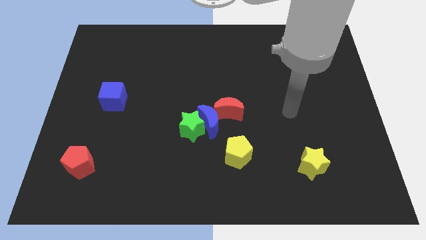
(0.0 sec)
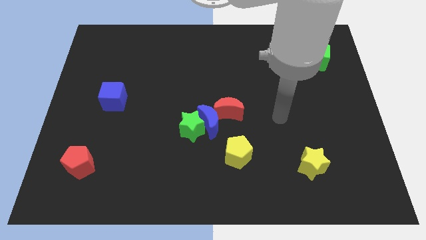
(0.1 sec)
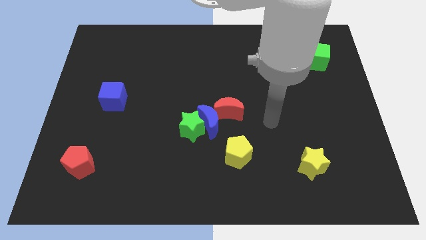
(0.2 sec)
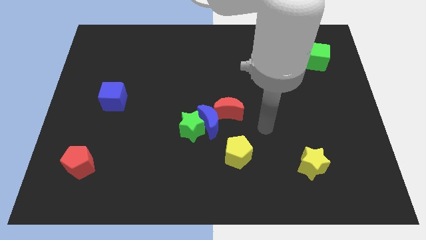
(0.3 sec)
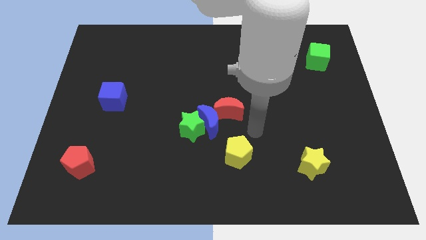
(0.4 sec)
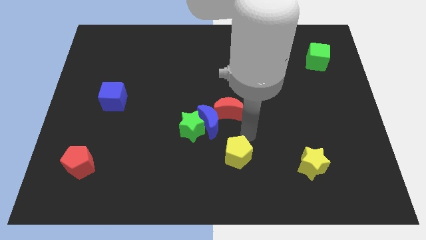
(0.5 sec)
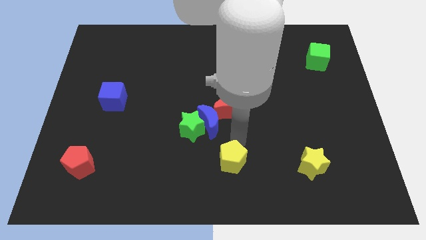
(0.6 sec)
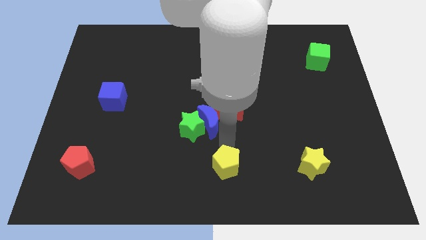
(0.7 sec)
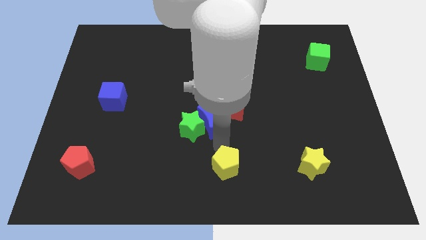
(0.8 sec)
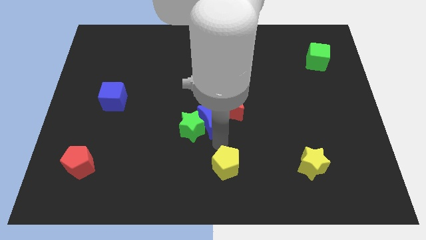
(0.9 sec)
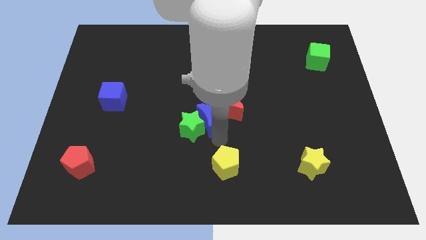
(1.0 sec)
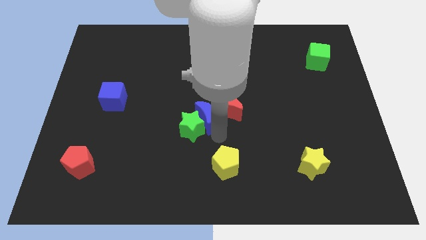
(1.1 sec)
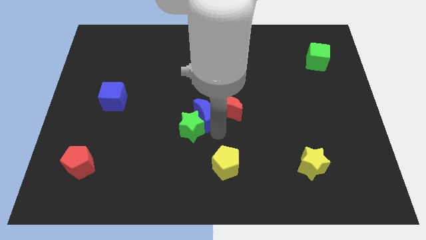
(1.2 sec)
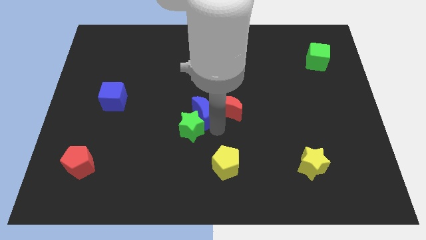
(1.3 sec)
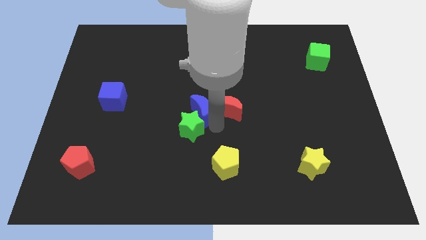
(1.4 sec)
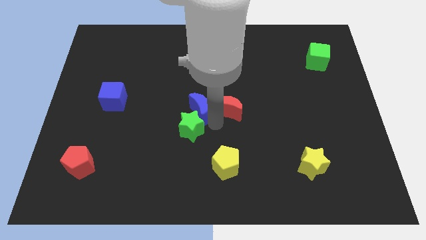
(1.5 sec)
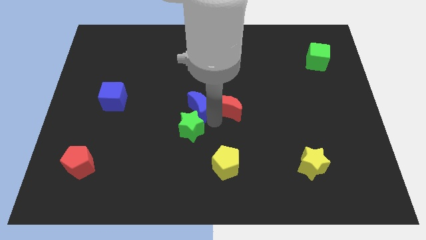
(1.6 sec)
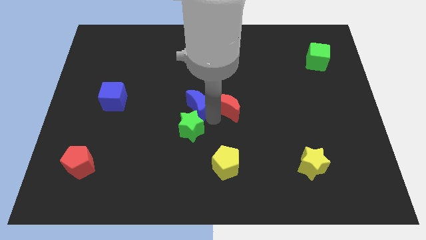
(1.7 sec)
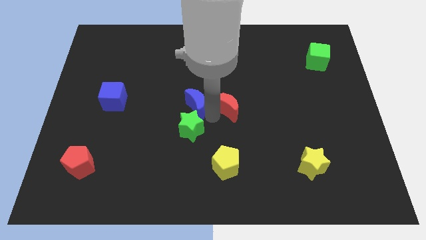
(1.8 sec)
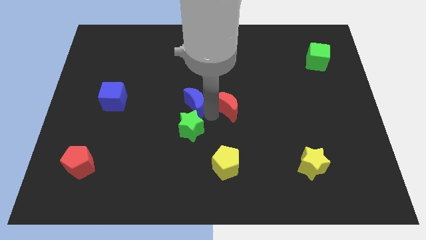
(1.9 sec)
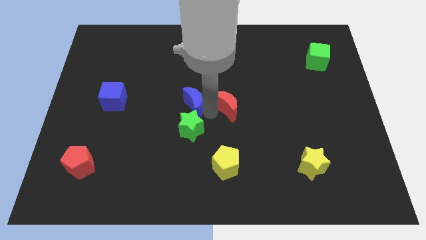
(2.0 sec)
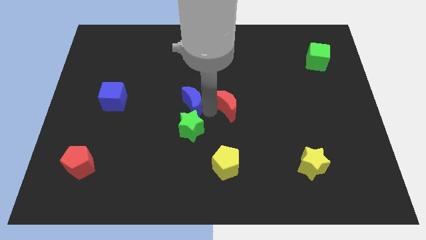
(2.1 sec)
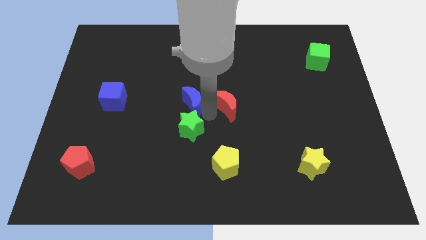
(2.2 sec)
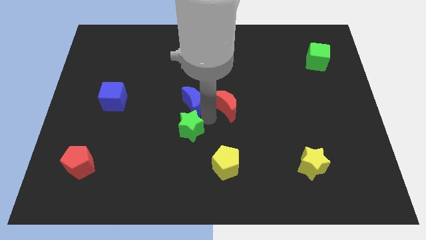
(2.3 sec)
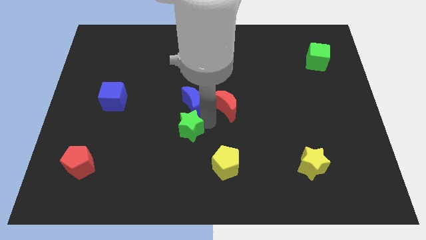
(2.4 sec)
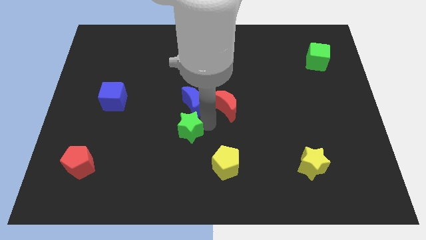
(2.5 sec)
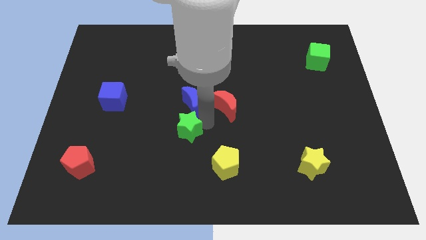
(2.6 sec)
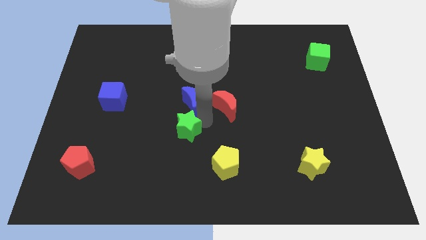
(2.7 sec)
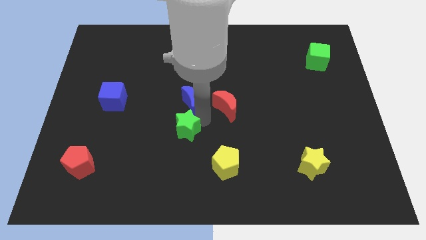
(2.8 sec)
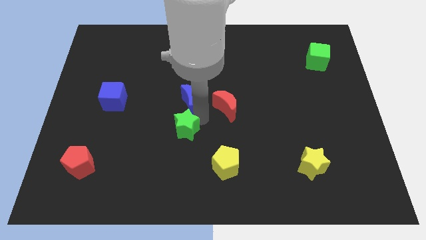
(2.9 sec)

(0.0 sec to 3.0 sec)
separate the blue moon from the green star, red moon, and yellow pentagon

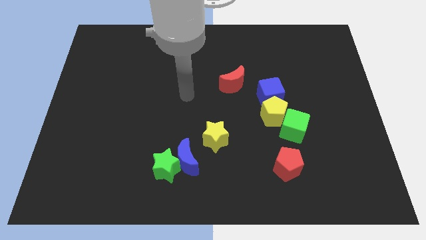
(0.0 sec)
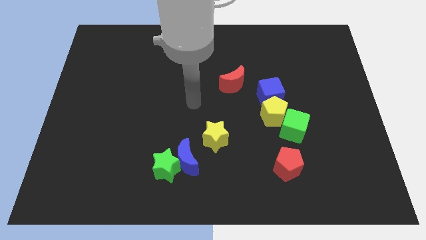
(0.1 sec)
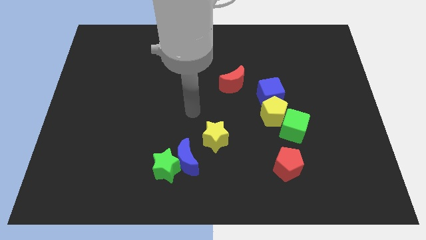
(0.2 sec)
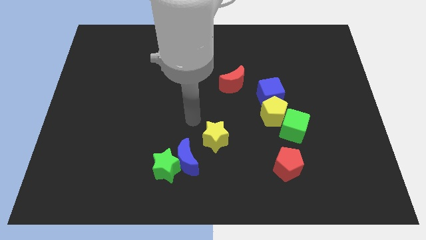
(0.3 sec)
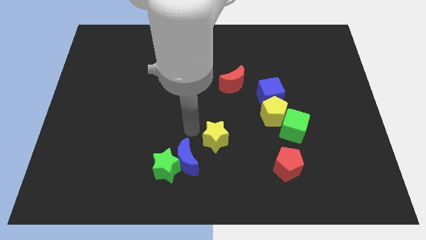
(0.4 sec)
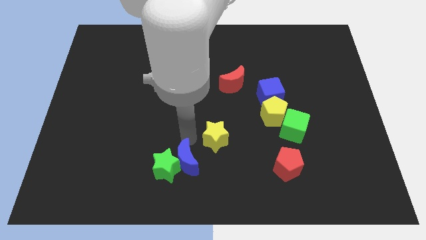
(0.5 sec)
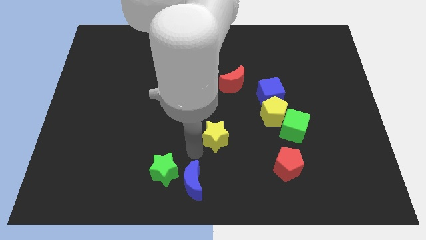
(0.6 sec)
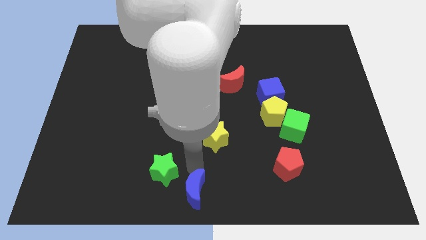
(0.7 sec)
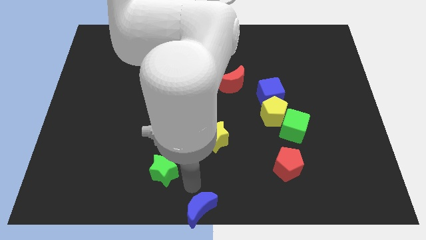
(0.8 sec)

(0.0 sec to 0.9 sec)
pull the green star apart from the blue moon

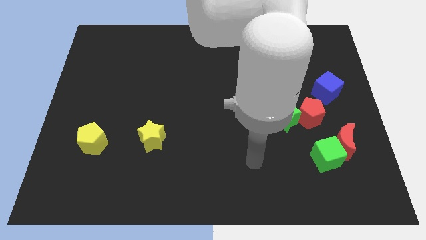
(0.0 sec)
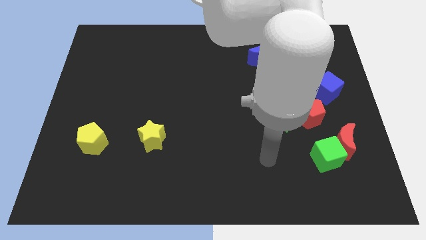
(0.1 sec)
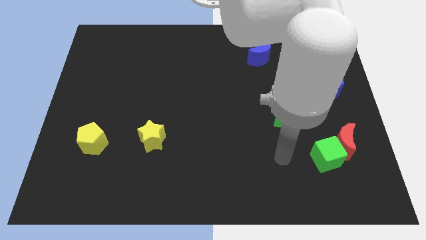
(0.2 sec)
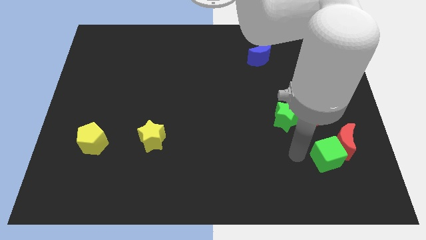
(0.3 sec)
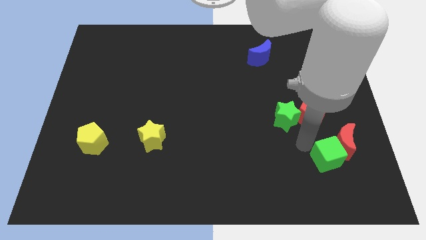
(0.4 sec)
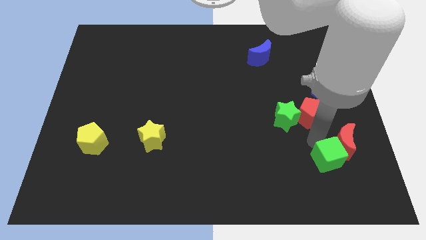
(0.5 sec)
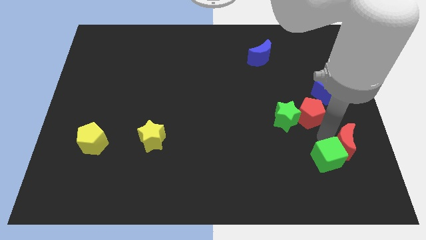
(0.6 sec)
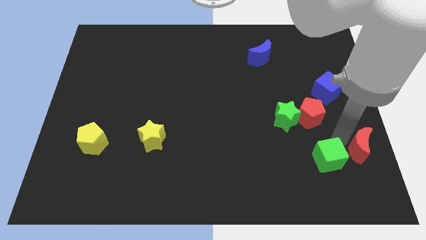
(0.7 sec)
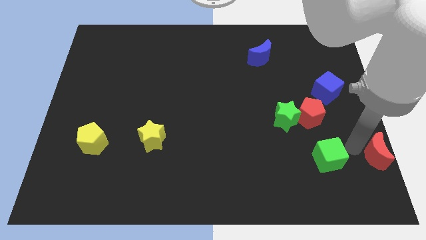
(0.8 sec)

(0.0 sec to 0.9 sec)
pull the green cube apart from the red moon

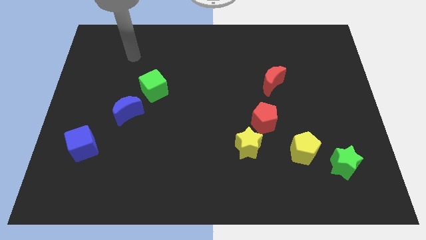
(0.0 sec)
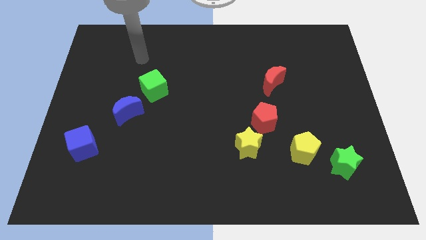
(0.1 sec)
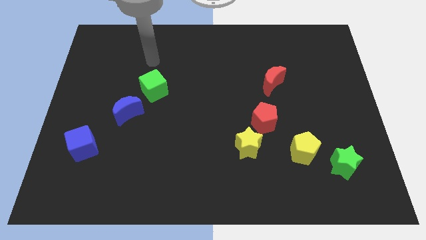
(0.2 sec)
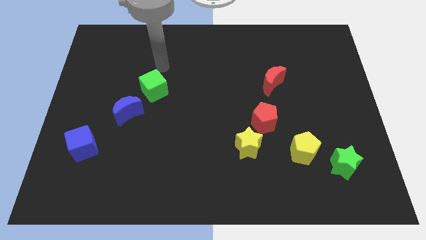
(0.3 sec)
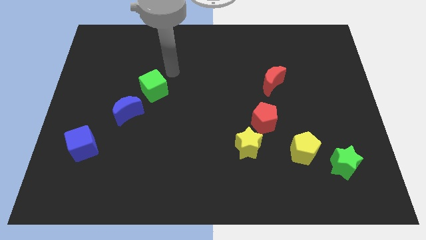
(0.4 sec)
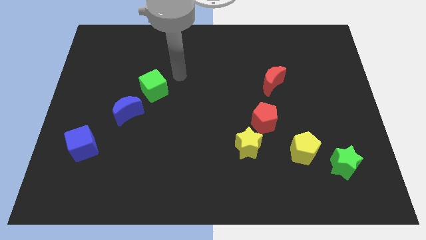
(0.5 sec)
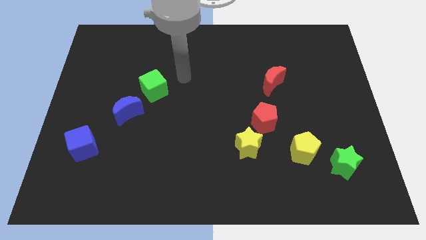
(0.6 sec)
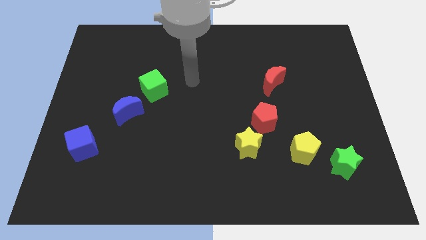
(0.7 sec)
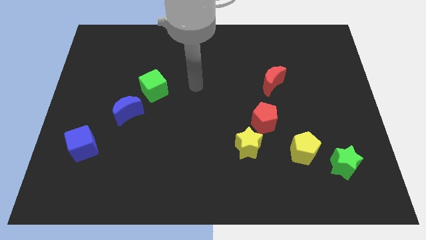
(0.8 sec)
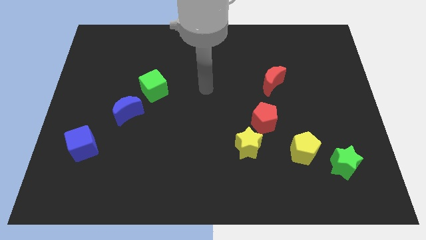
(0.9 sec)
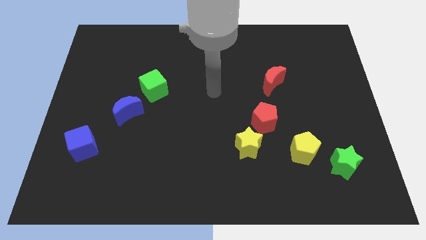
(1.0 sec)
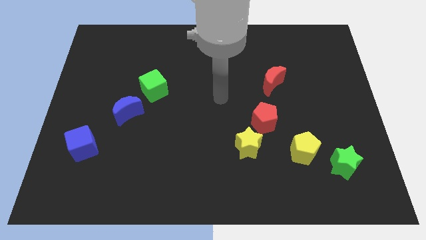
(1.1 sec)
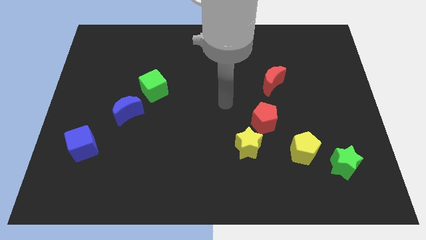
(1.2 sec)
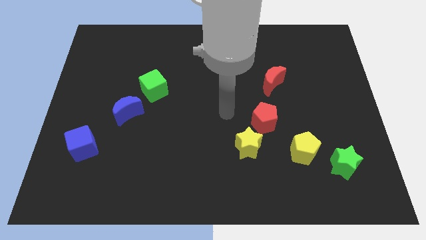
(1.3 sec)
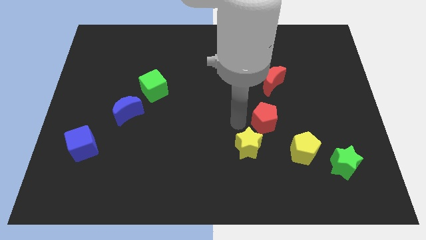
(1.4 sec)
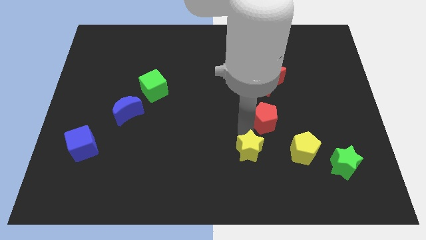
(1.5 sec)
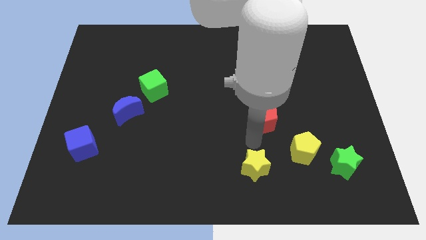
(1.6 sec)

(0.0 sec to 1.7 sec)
separate the red pentagon from the yellow star

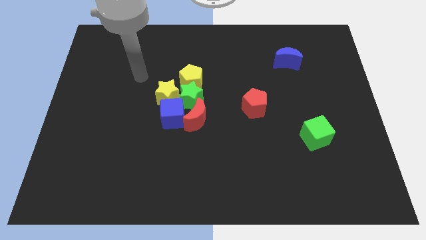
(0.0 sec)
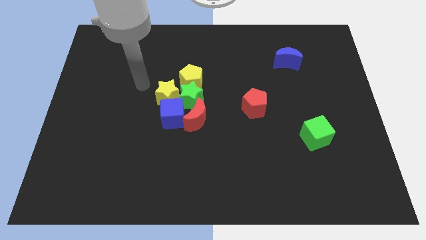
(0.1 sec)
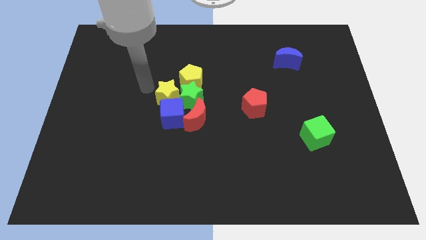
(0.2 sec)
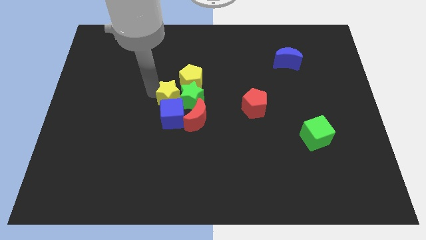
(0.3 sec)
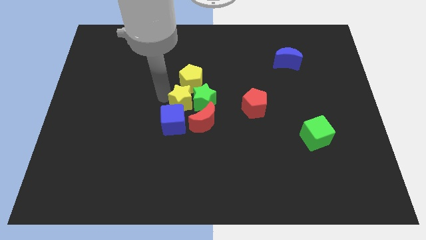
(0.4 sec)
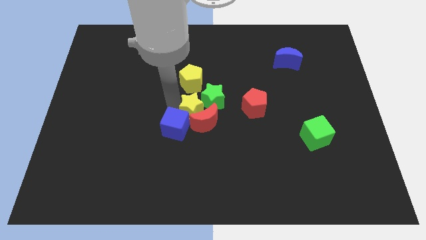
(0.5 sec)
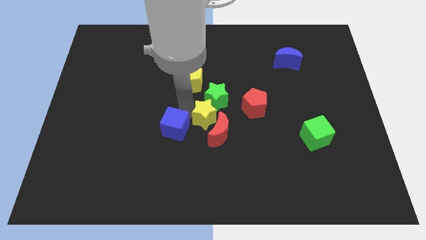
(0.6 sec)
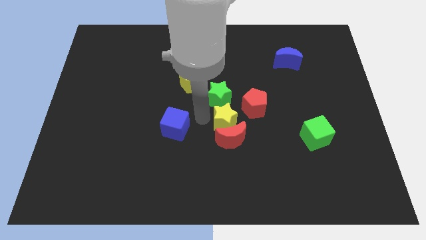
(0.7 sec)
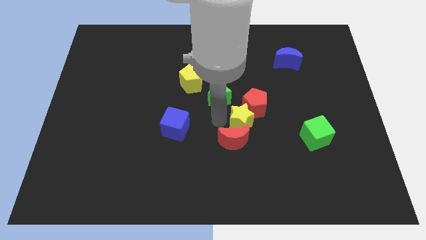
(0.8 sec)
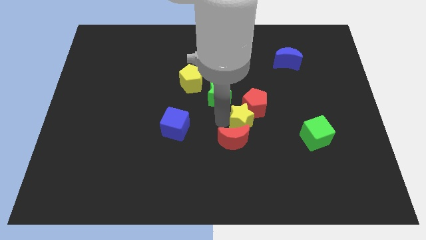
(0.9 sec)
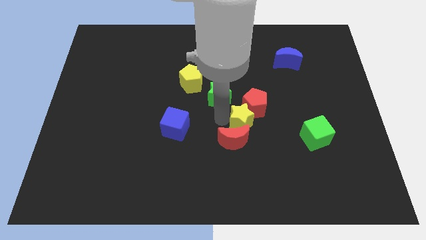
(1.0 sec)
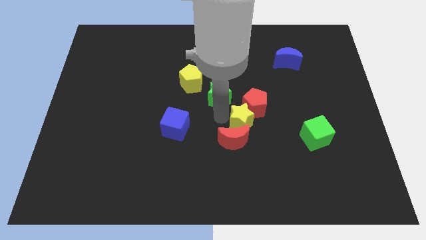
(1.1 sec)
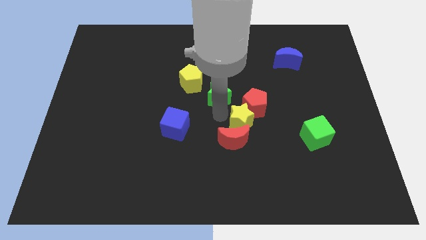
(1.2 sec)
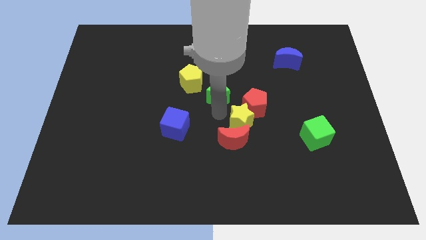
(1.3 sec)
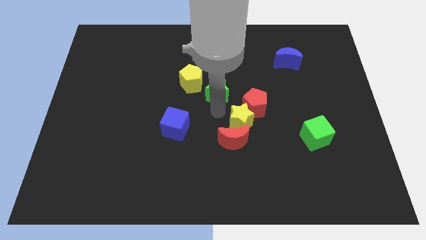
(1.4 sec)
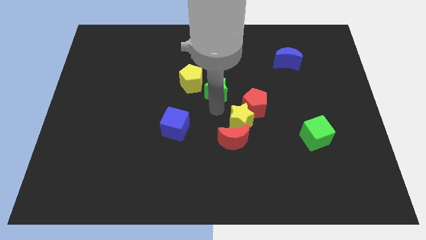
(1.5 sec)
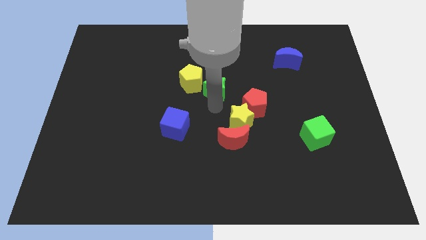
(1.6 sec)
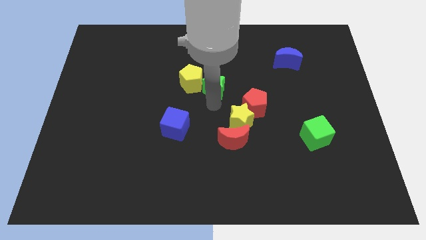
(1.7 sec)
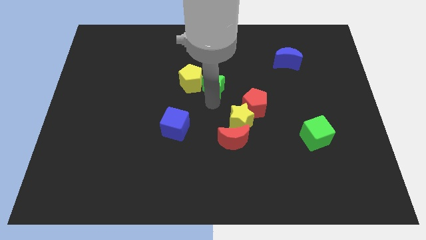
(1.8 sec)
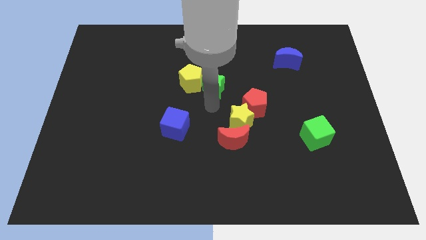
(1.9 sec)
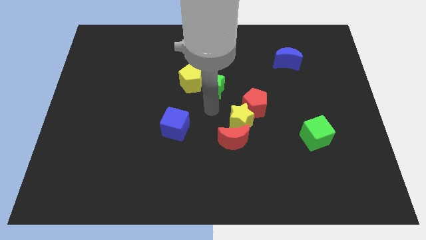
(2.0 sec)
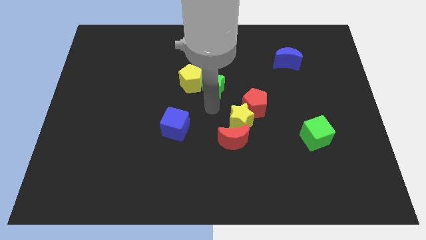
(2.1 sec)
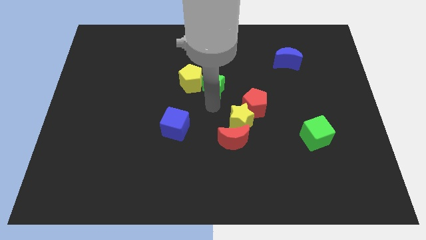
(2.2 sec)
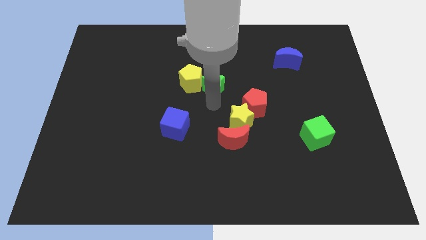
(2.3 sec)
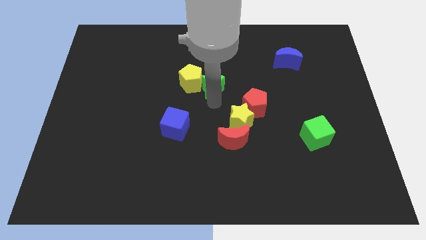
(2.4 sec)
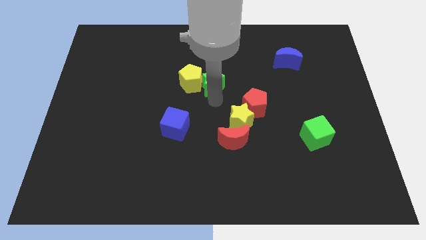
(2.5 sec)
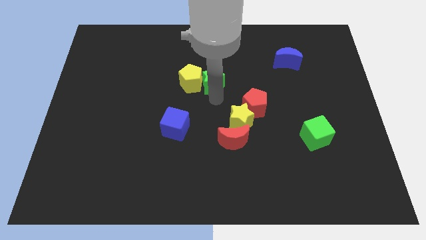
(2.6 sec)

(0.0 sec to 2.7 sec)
separate the green star from the group of blocks

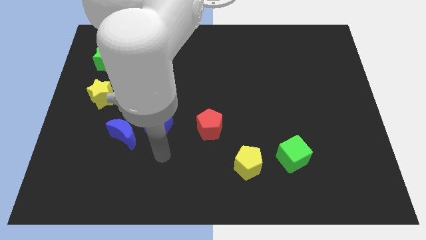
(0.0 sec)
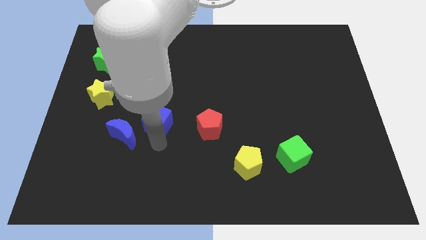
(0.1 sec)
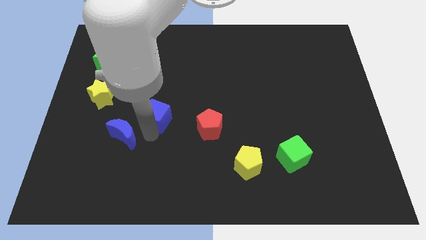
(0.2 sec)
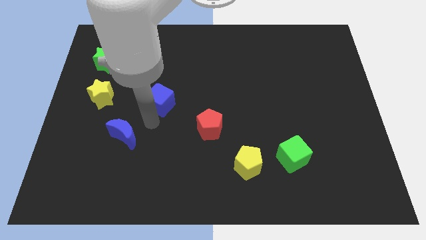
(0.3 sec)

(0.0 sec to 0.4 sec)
move the blue moon away from the blue cube
